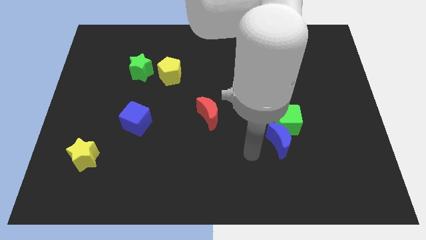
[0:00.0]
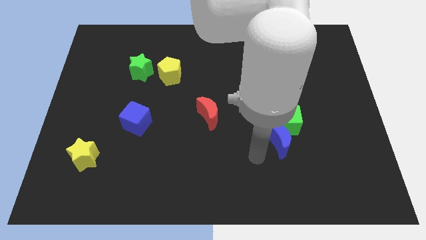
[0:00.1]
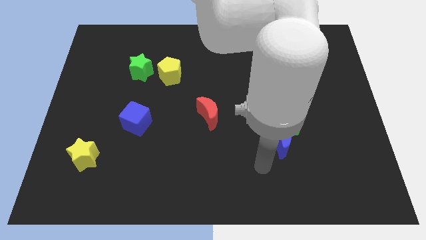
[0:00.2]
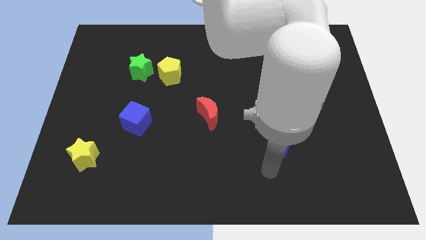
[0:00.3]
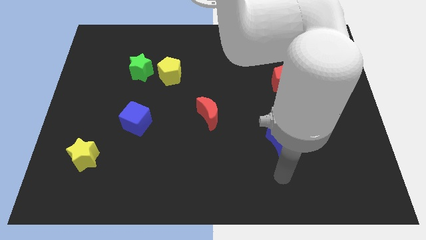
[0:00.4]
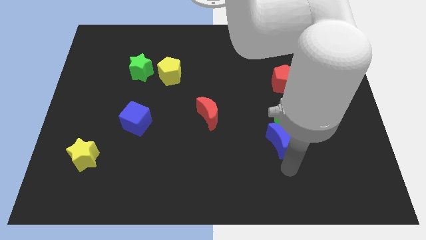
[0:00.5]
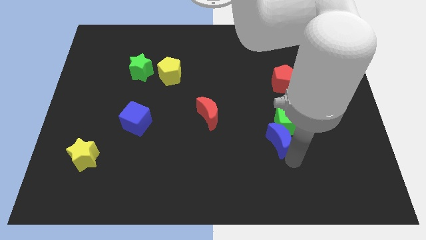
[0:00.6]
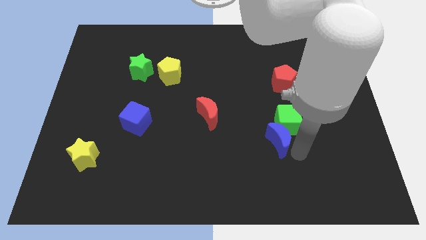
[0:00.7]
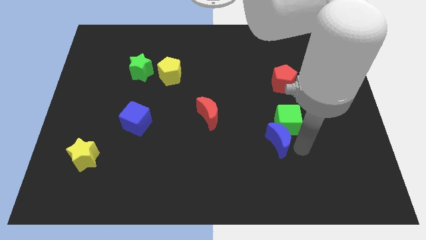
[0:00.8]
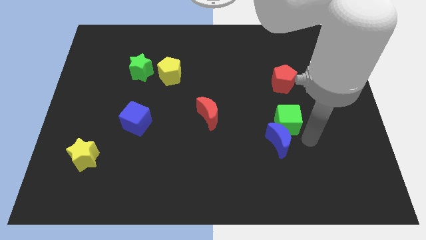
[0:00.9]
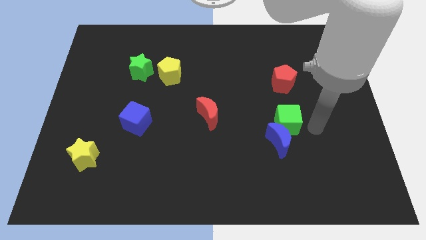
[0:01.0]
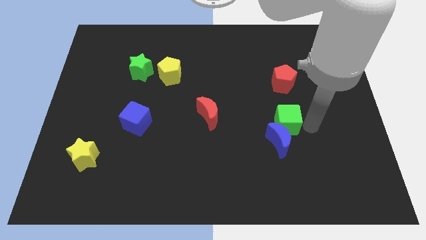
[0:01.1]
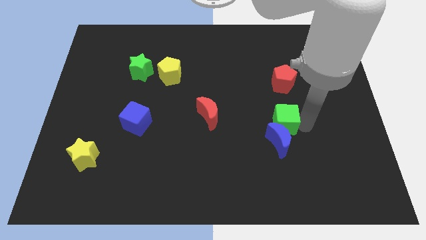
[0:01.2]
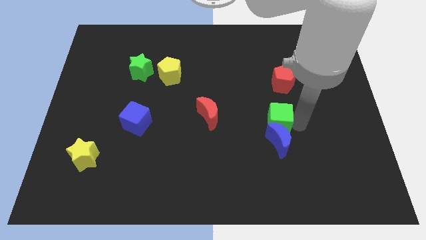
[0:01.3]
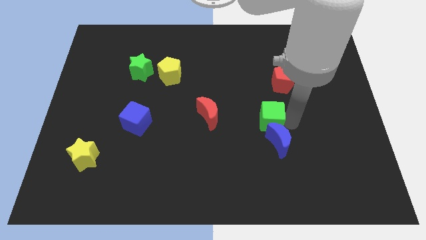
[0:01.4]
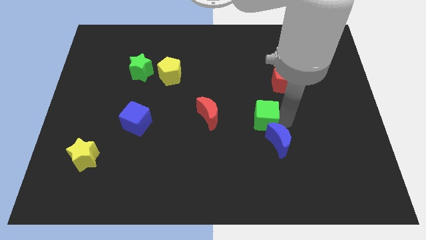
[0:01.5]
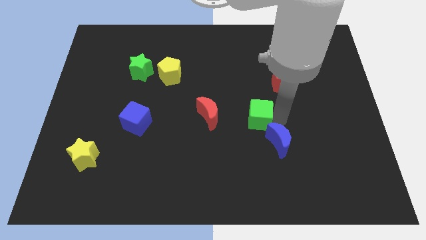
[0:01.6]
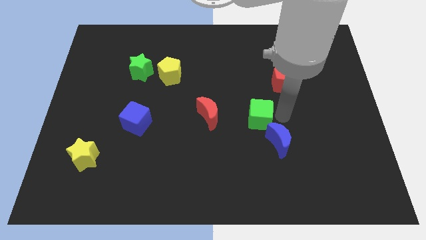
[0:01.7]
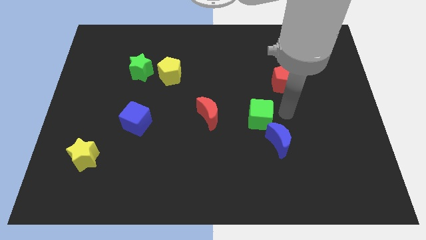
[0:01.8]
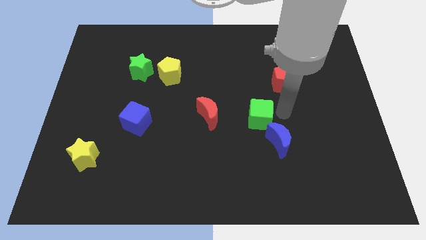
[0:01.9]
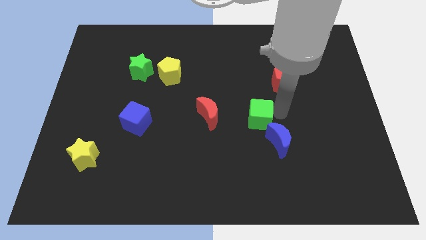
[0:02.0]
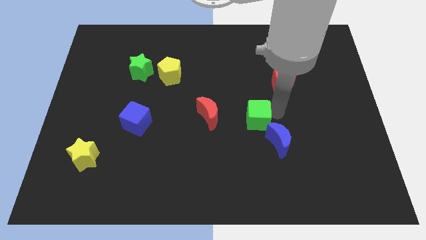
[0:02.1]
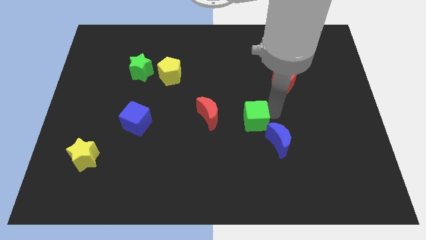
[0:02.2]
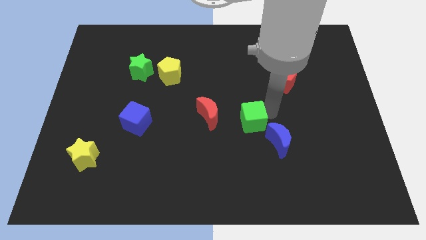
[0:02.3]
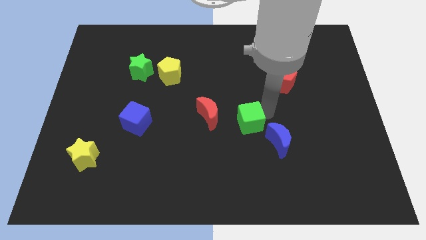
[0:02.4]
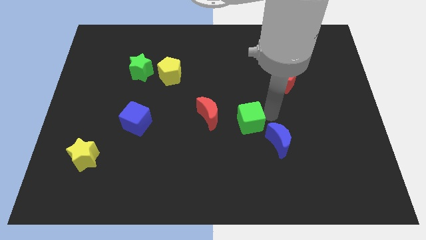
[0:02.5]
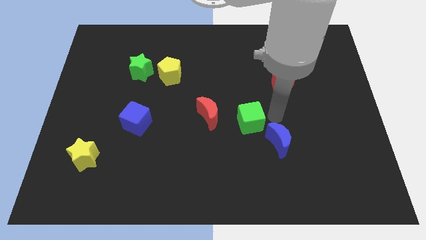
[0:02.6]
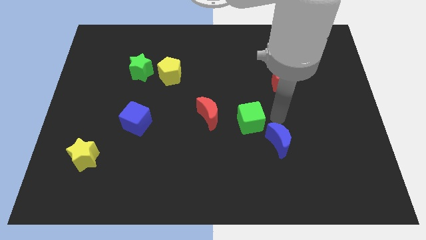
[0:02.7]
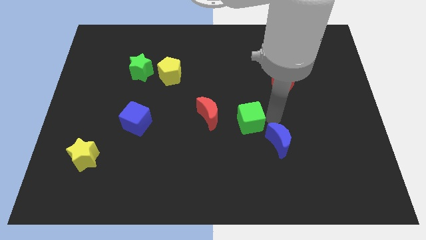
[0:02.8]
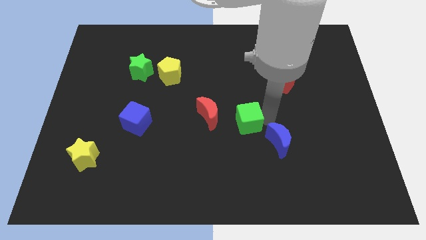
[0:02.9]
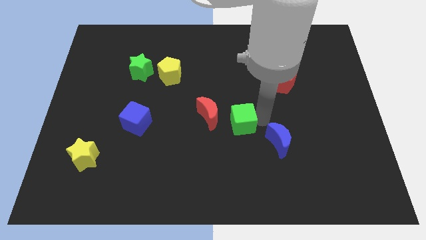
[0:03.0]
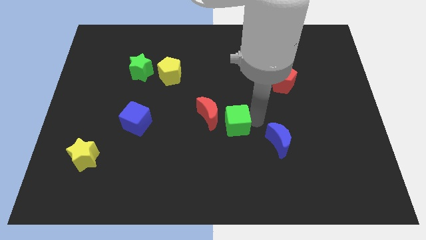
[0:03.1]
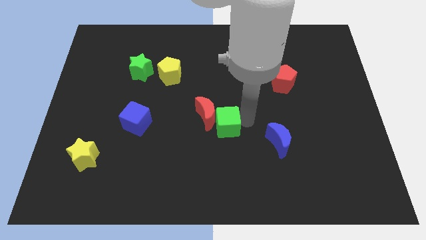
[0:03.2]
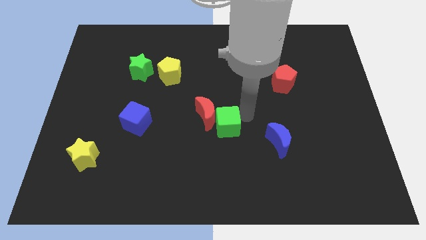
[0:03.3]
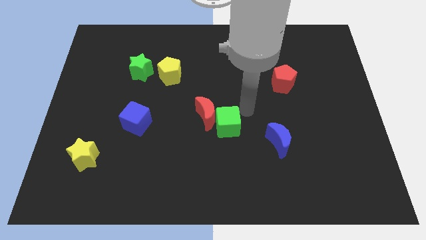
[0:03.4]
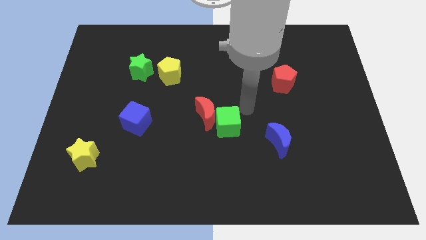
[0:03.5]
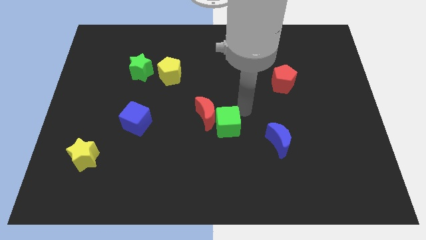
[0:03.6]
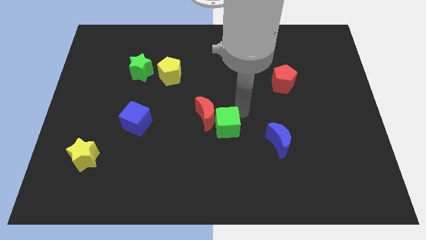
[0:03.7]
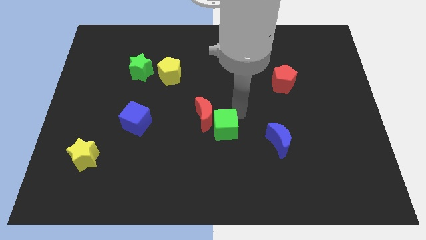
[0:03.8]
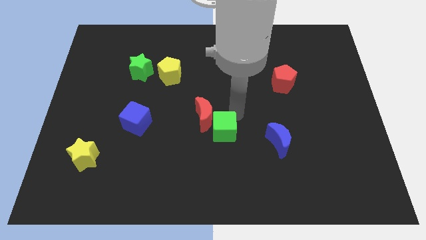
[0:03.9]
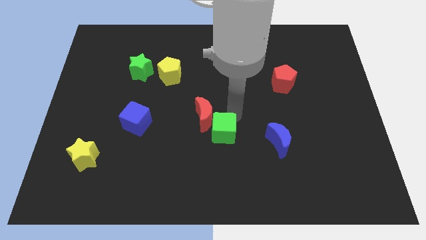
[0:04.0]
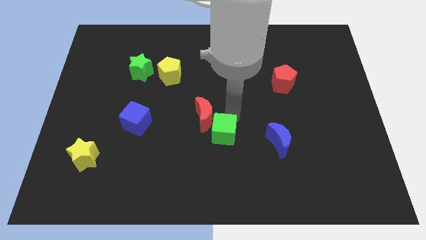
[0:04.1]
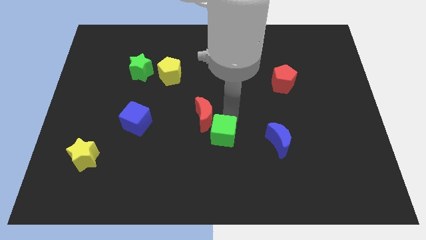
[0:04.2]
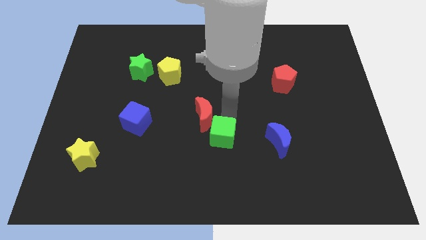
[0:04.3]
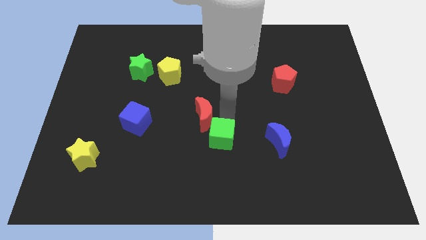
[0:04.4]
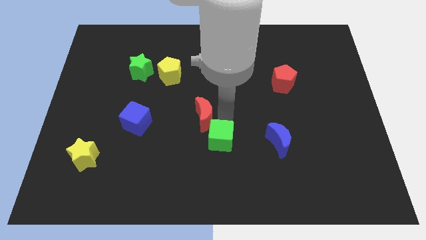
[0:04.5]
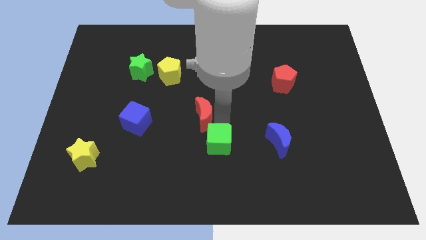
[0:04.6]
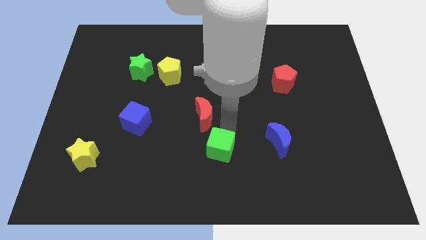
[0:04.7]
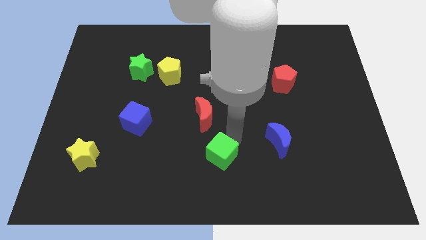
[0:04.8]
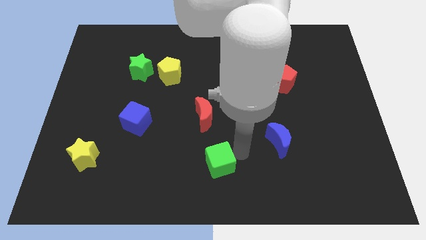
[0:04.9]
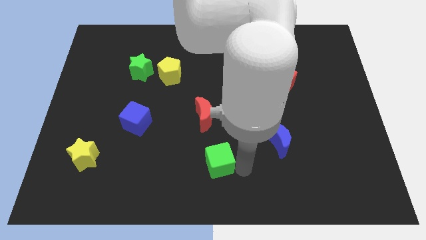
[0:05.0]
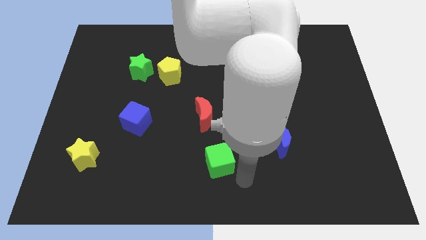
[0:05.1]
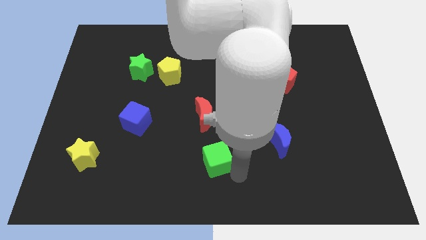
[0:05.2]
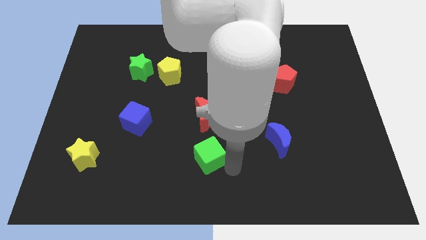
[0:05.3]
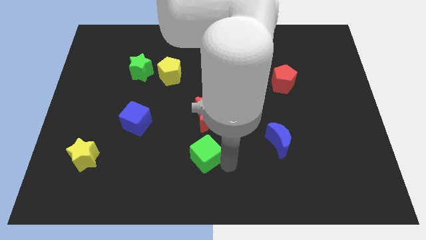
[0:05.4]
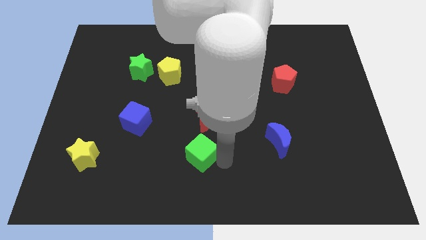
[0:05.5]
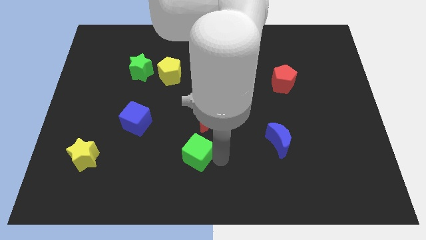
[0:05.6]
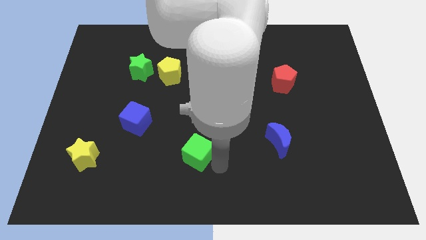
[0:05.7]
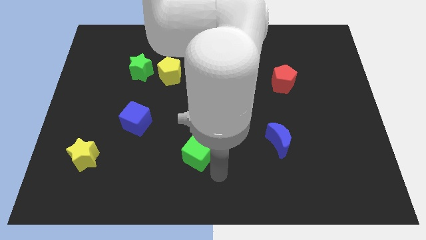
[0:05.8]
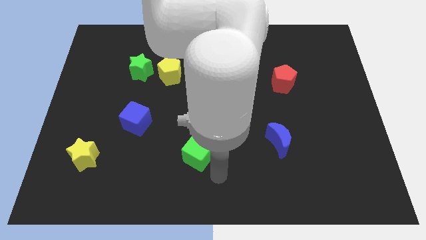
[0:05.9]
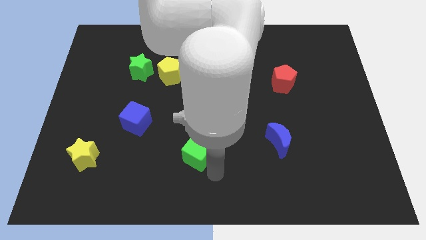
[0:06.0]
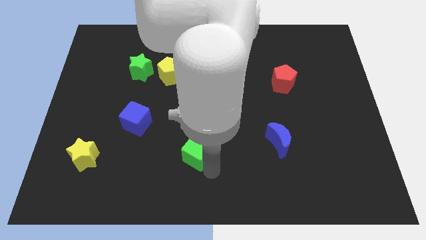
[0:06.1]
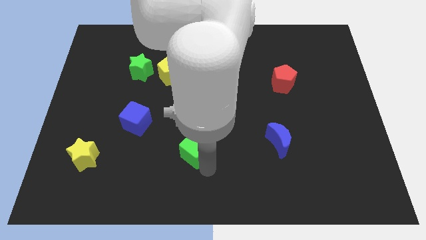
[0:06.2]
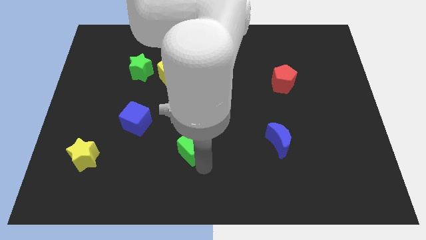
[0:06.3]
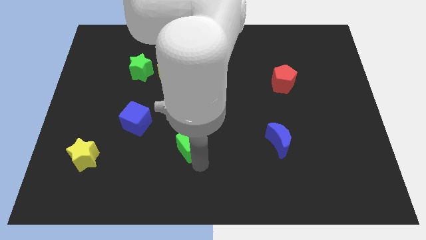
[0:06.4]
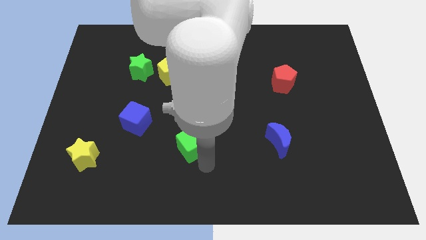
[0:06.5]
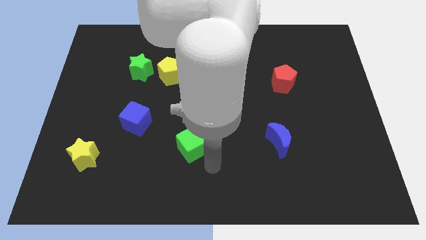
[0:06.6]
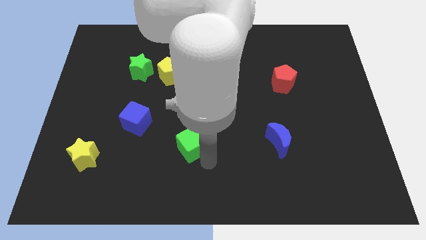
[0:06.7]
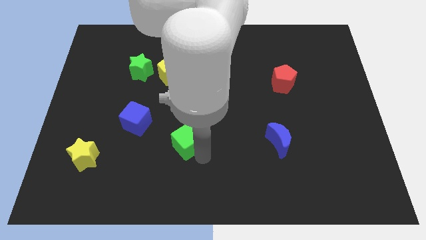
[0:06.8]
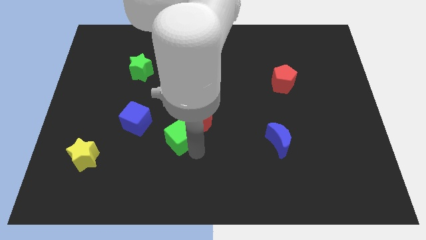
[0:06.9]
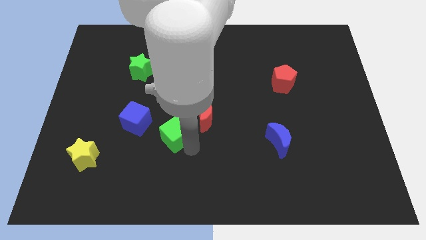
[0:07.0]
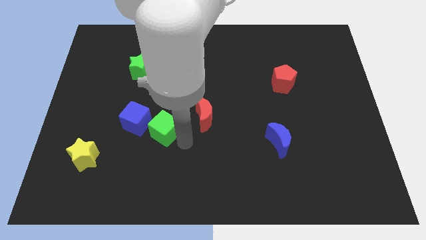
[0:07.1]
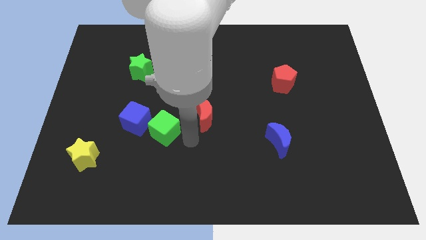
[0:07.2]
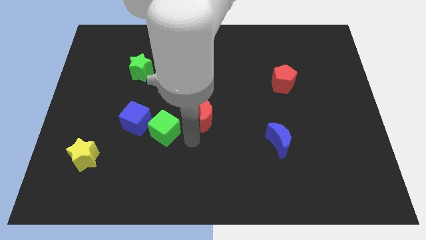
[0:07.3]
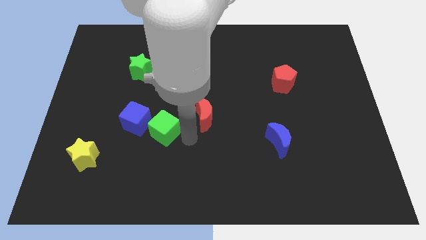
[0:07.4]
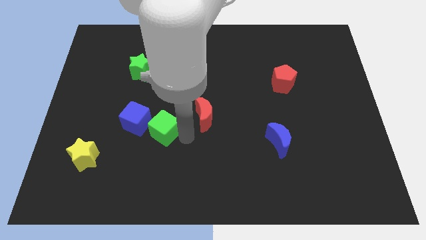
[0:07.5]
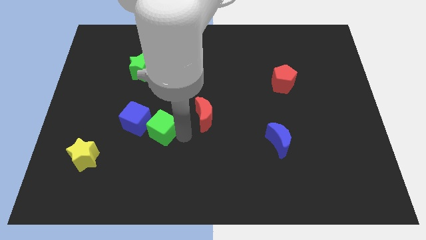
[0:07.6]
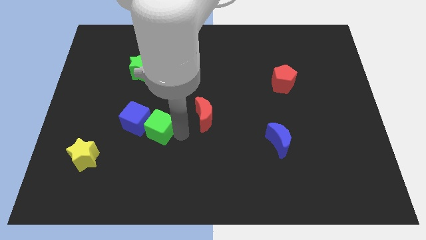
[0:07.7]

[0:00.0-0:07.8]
slide the green cube close to the blue cube
